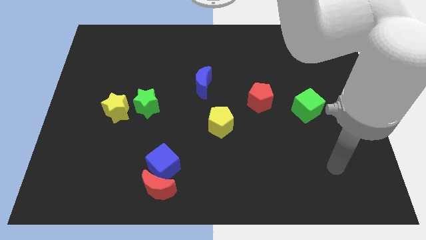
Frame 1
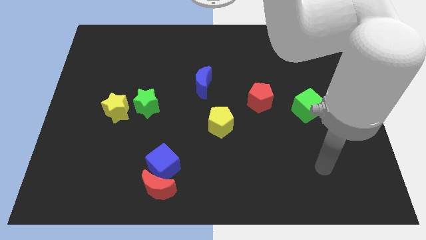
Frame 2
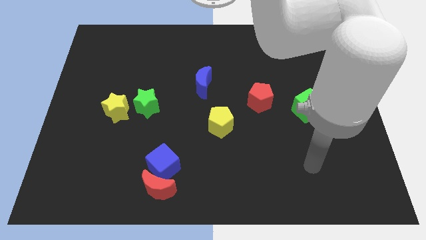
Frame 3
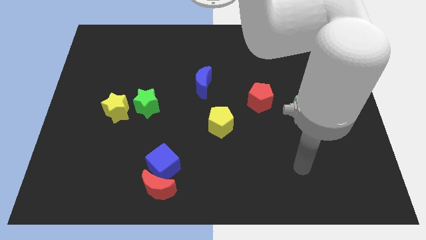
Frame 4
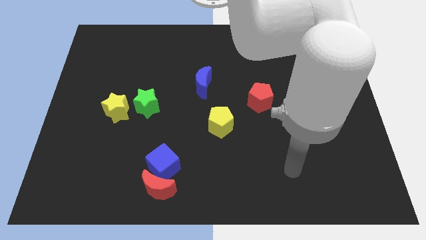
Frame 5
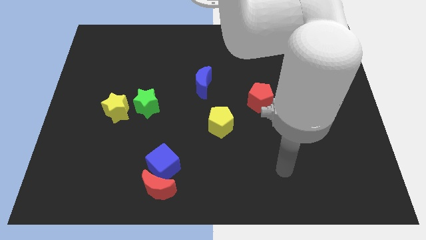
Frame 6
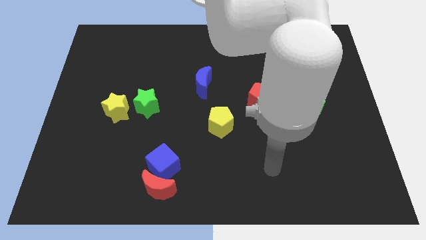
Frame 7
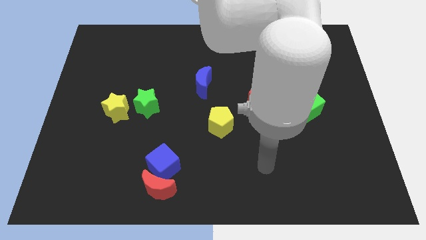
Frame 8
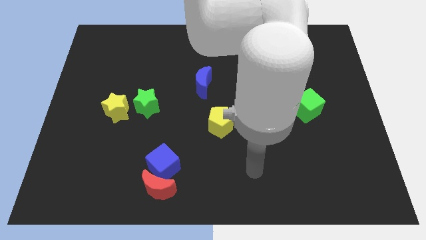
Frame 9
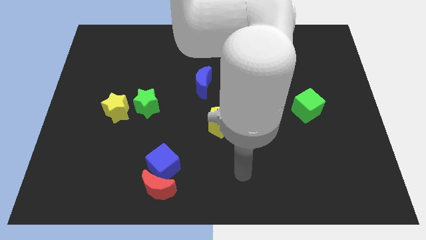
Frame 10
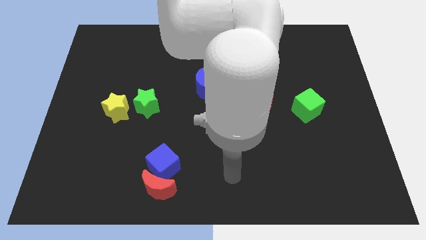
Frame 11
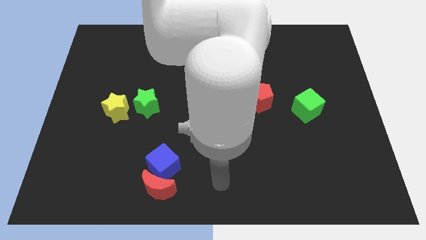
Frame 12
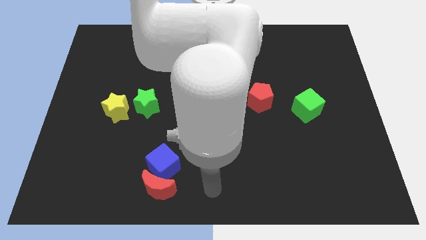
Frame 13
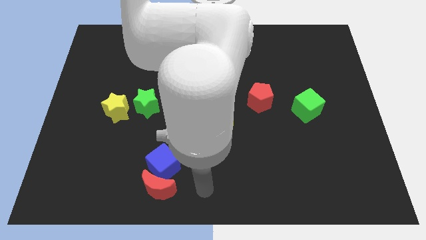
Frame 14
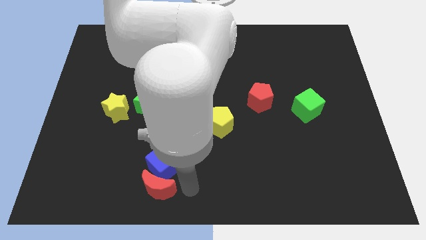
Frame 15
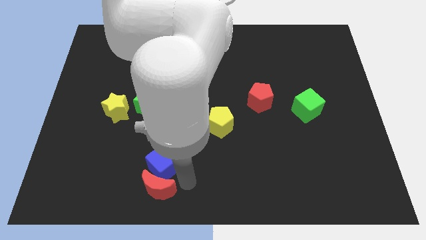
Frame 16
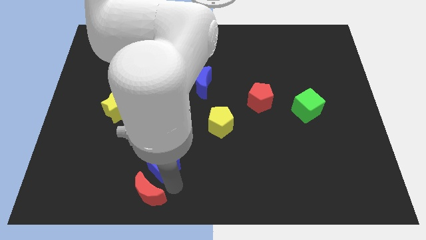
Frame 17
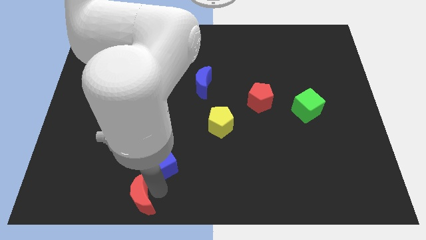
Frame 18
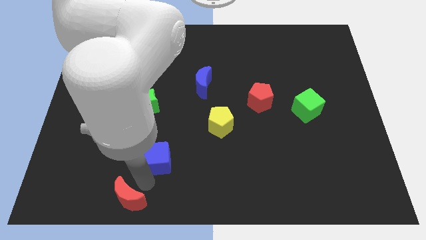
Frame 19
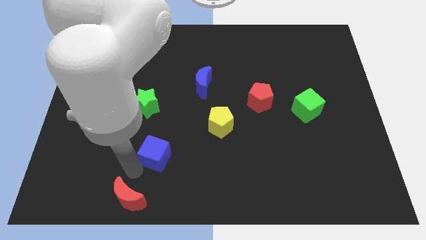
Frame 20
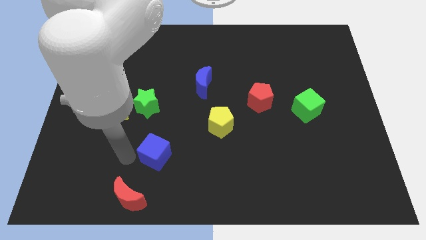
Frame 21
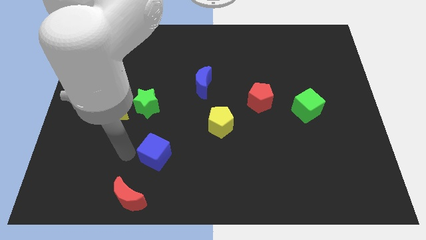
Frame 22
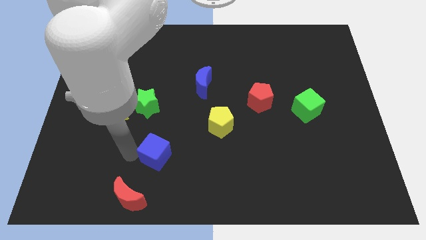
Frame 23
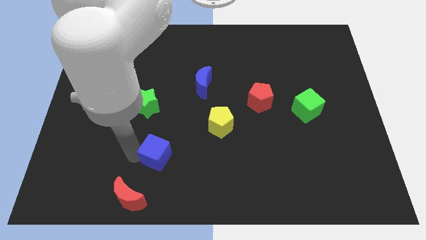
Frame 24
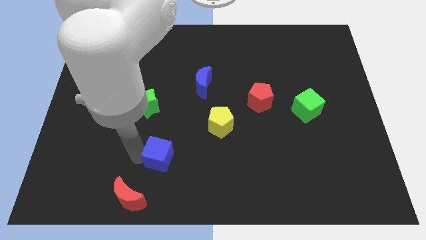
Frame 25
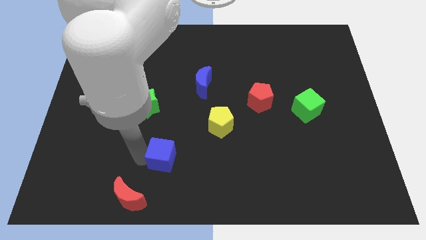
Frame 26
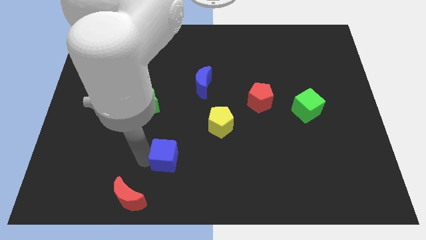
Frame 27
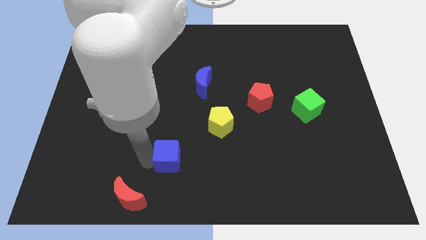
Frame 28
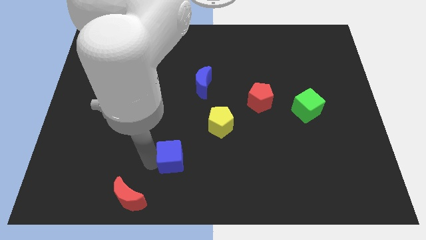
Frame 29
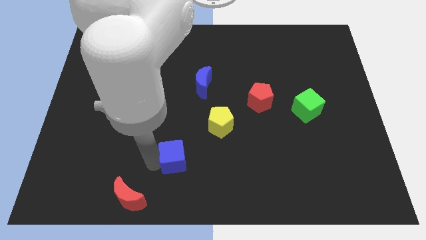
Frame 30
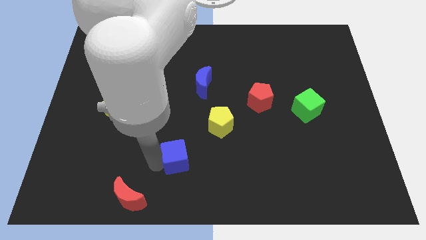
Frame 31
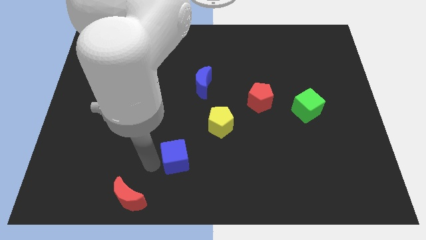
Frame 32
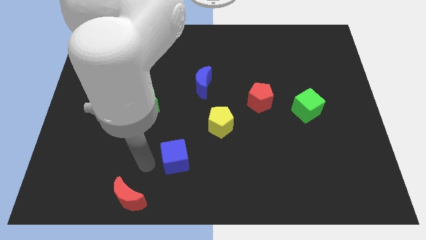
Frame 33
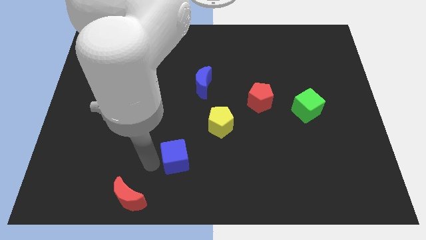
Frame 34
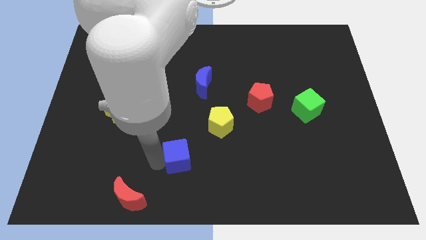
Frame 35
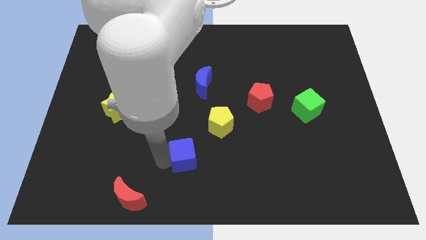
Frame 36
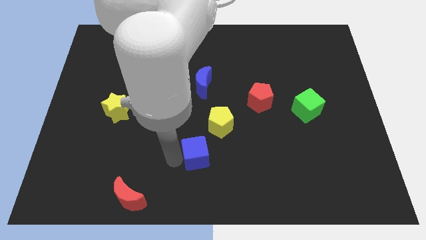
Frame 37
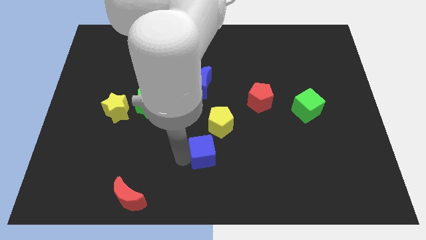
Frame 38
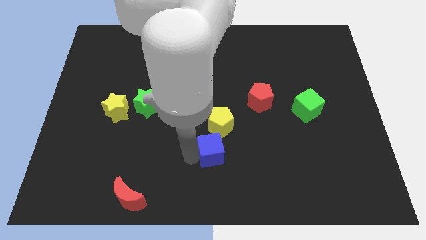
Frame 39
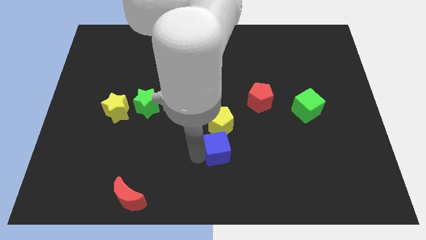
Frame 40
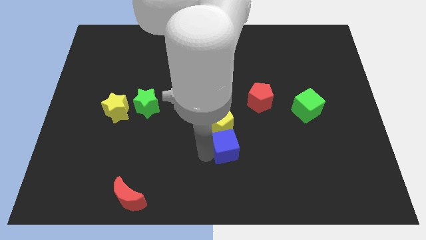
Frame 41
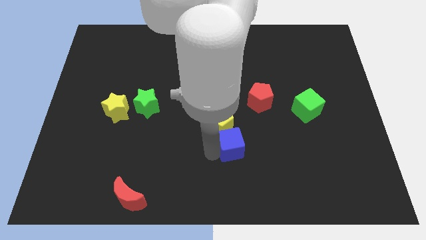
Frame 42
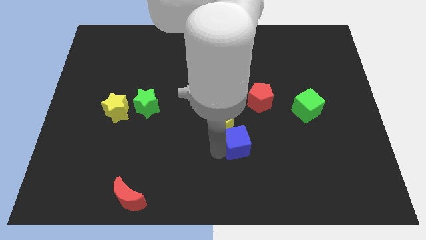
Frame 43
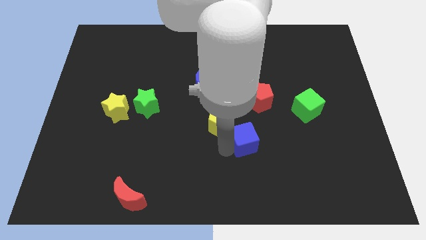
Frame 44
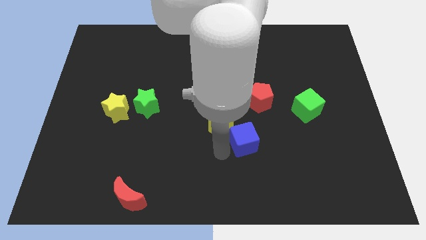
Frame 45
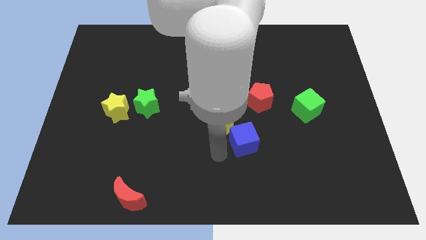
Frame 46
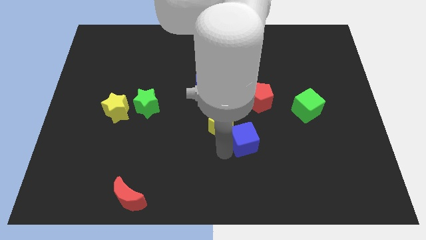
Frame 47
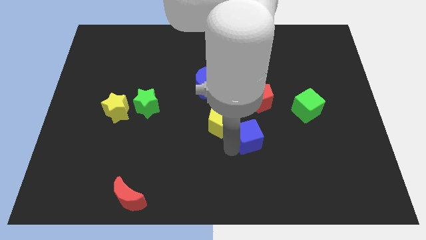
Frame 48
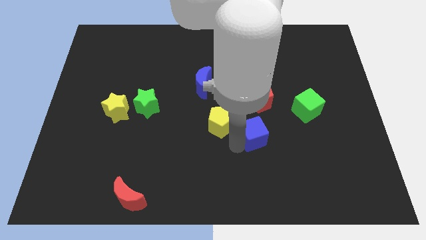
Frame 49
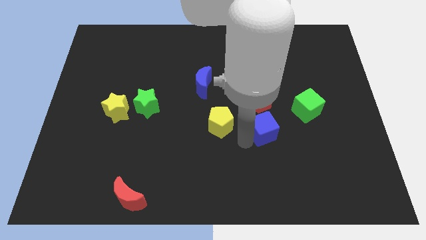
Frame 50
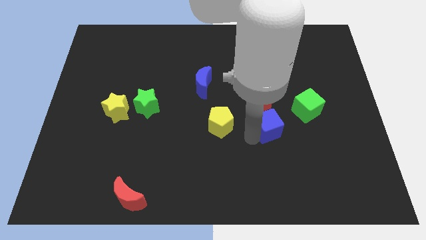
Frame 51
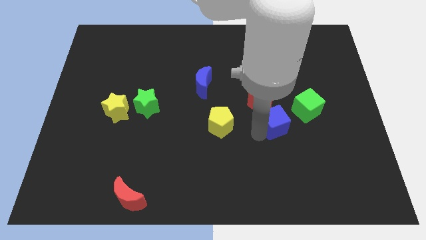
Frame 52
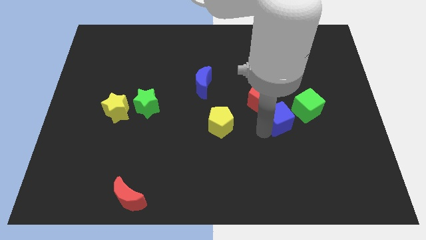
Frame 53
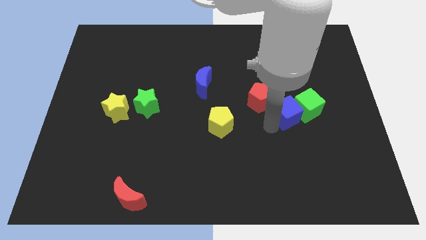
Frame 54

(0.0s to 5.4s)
put the blue cube next to the green cube
